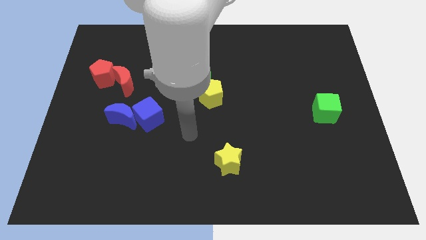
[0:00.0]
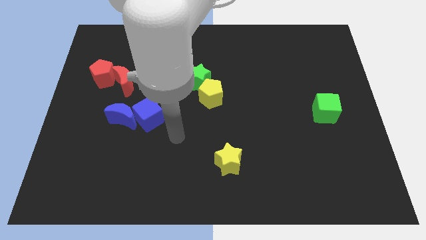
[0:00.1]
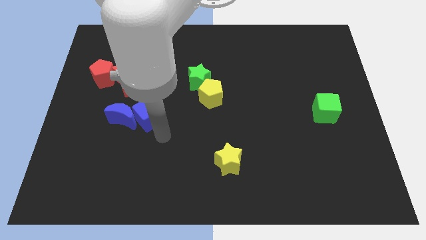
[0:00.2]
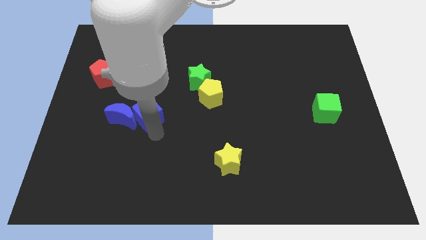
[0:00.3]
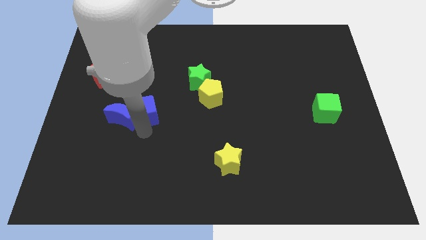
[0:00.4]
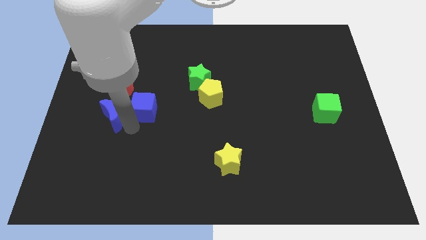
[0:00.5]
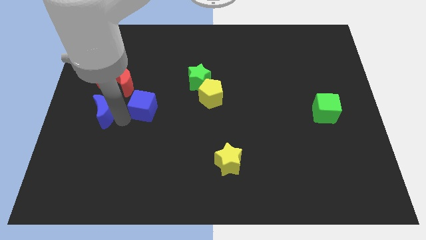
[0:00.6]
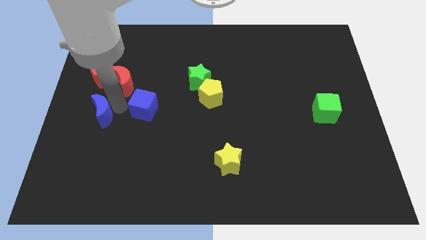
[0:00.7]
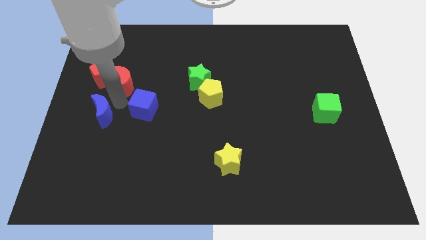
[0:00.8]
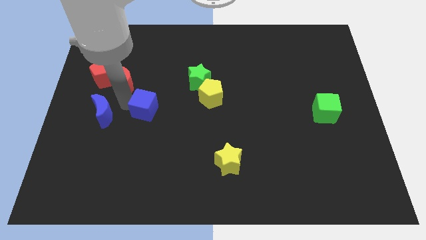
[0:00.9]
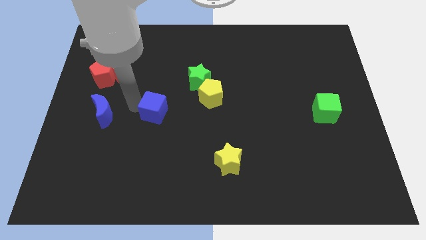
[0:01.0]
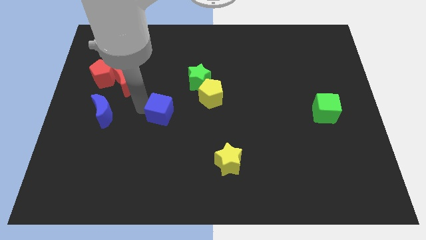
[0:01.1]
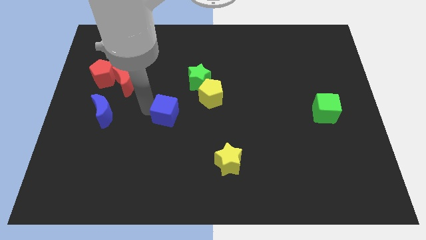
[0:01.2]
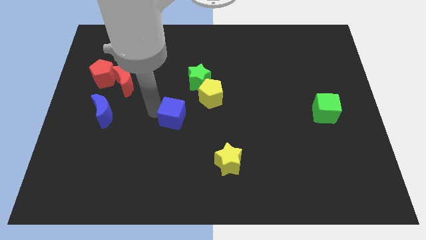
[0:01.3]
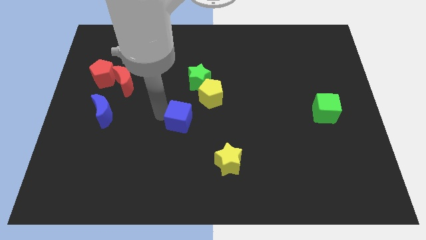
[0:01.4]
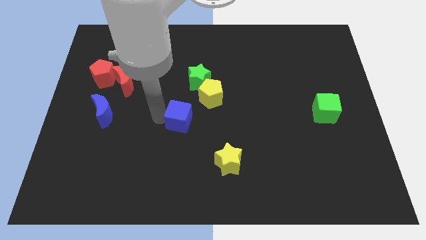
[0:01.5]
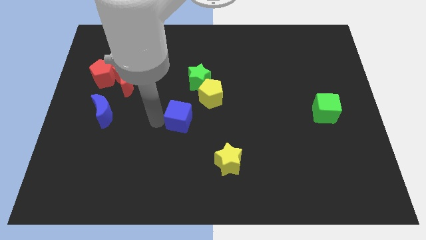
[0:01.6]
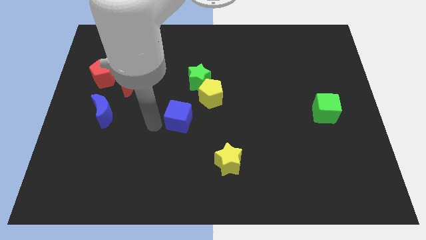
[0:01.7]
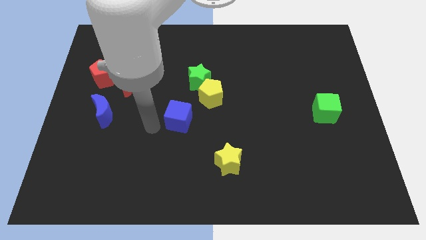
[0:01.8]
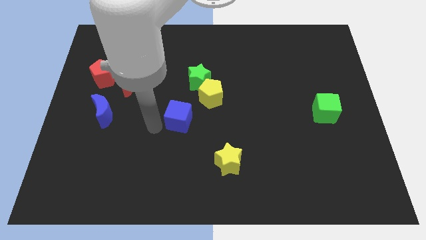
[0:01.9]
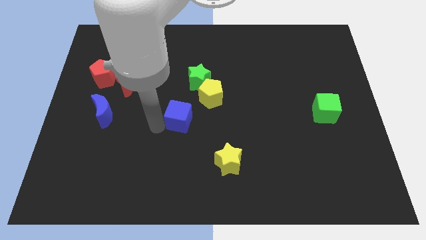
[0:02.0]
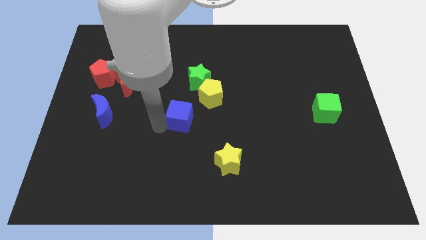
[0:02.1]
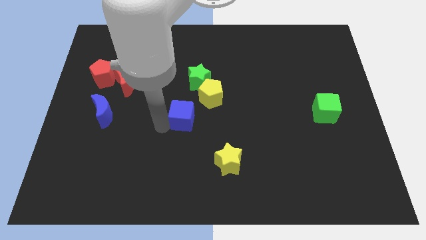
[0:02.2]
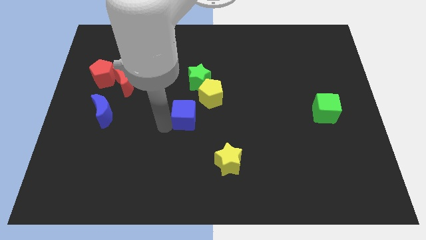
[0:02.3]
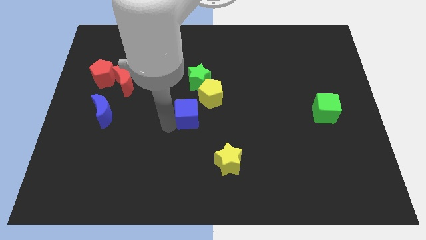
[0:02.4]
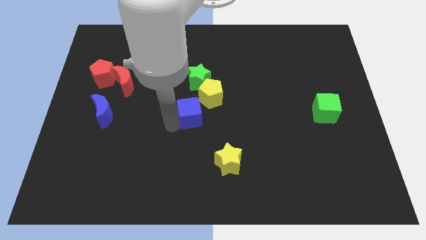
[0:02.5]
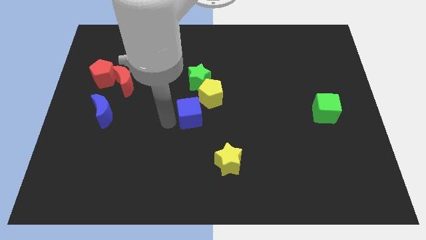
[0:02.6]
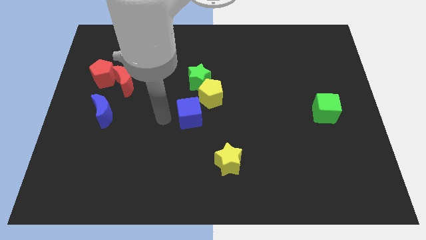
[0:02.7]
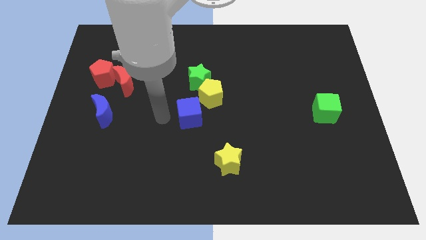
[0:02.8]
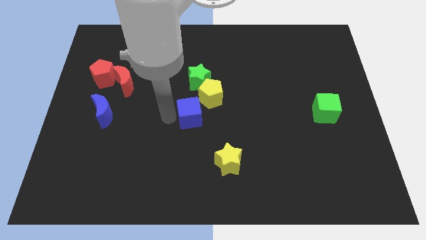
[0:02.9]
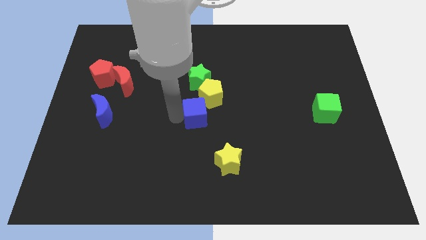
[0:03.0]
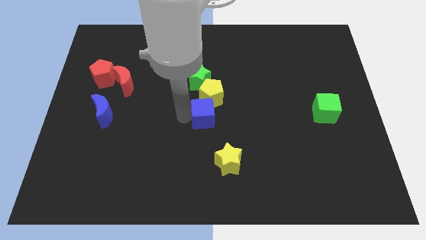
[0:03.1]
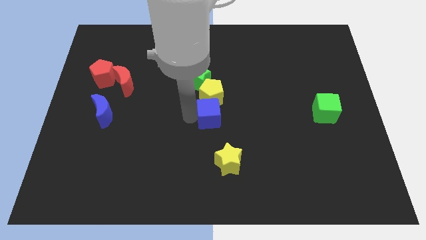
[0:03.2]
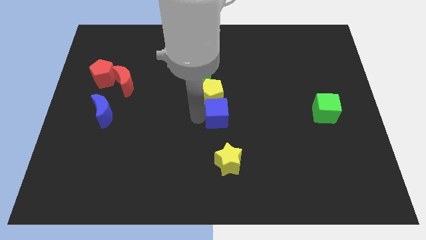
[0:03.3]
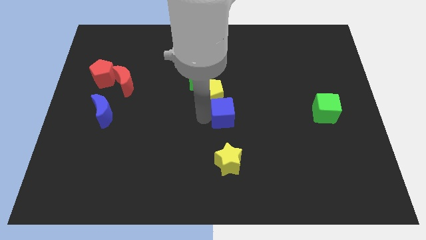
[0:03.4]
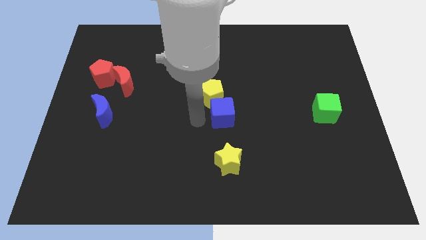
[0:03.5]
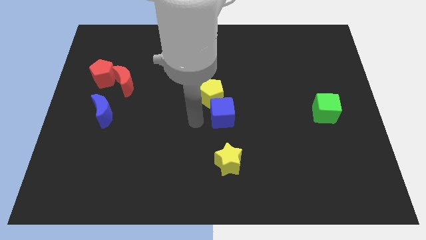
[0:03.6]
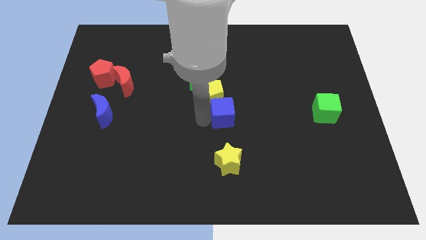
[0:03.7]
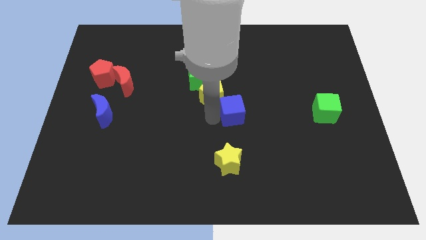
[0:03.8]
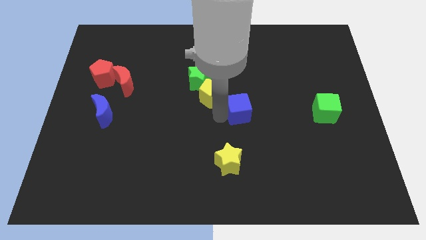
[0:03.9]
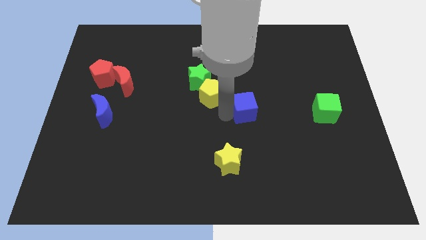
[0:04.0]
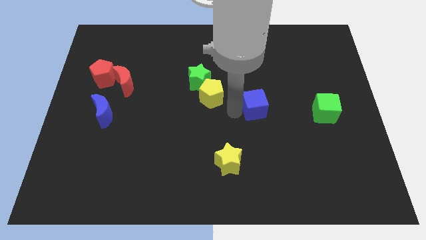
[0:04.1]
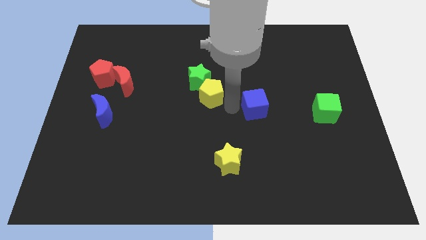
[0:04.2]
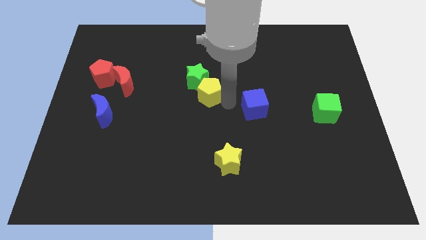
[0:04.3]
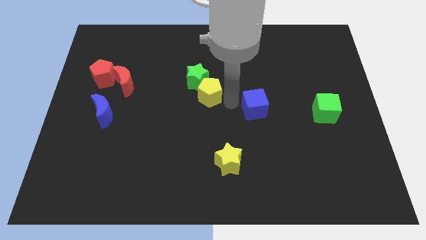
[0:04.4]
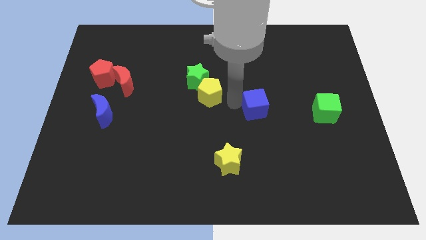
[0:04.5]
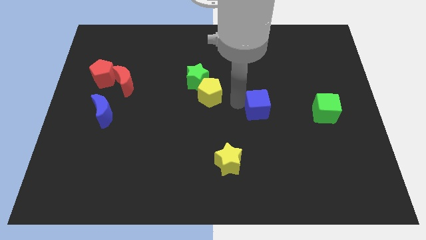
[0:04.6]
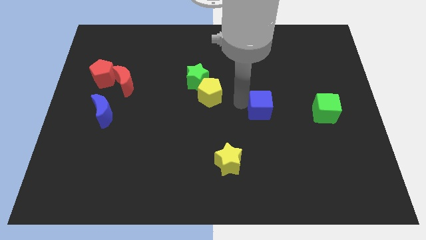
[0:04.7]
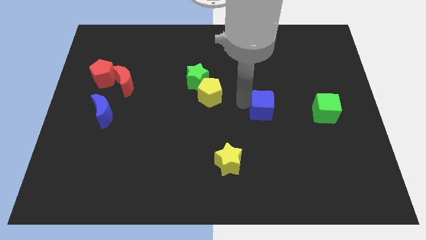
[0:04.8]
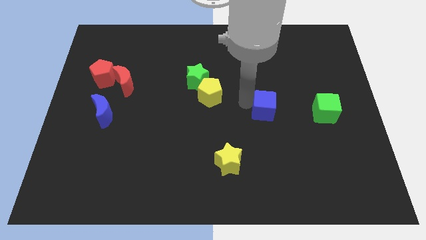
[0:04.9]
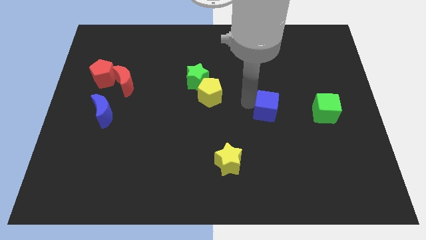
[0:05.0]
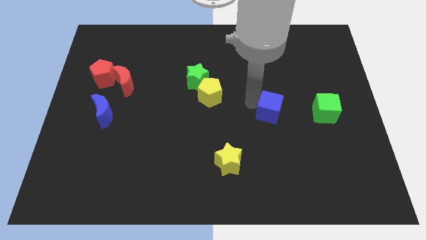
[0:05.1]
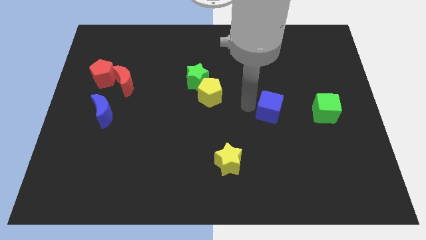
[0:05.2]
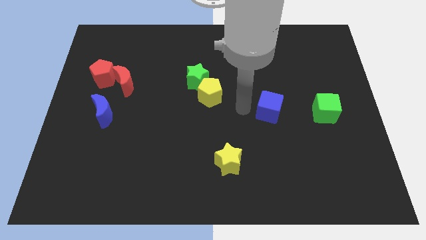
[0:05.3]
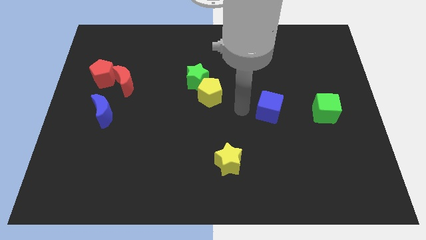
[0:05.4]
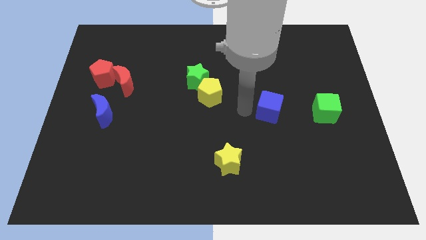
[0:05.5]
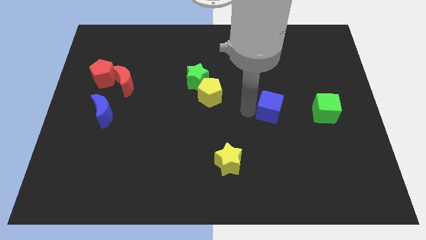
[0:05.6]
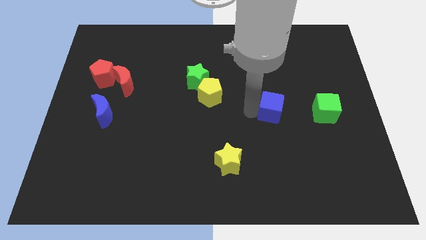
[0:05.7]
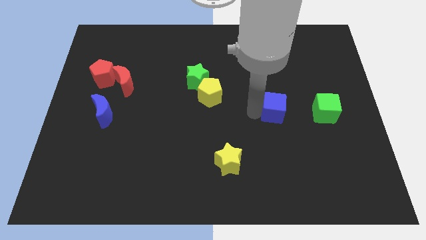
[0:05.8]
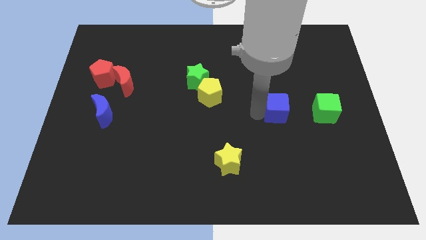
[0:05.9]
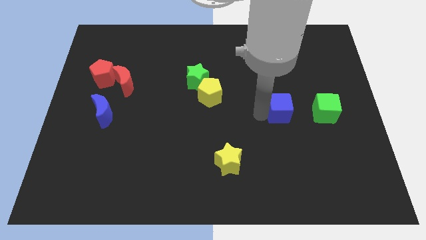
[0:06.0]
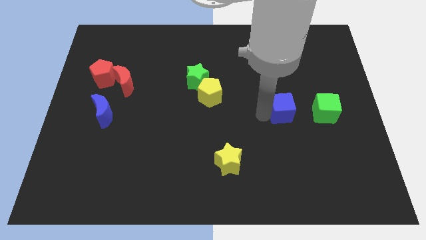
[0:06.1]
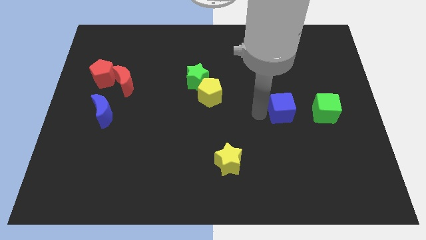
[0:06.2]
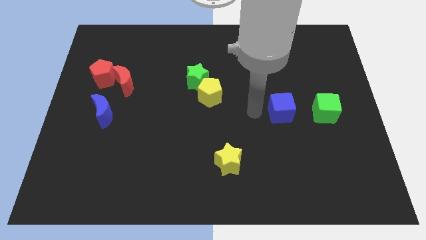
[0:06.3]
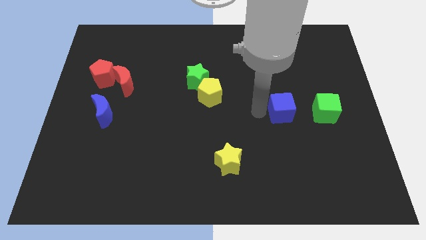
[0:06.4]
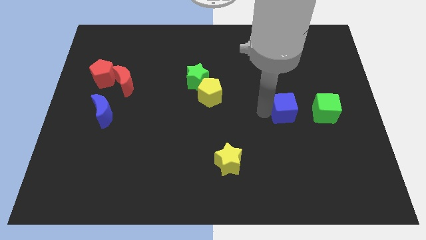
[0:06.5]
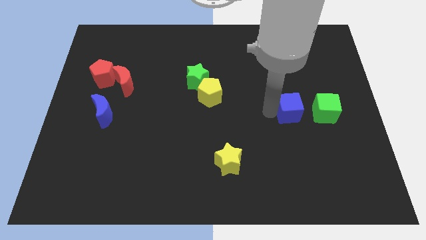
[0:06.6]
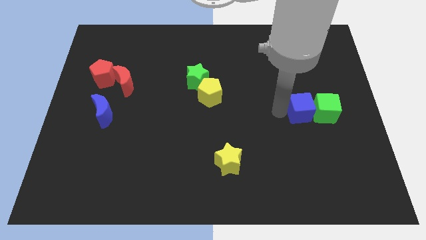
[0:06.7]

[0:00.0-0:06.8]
move the blue cube close to the green cube
